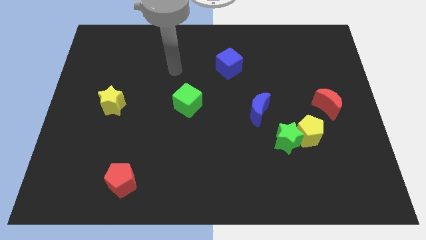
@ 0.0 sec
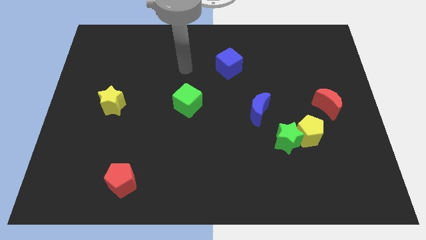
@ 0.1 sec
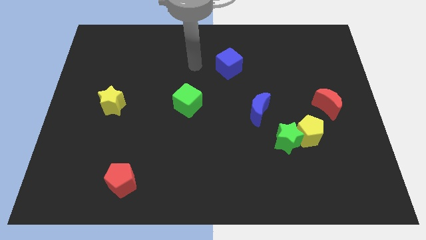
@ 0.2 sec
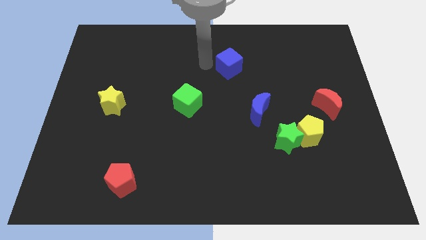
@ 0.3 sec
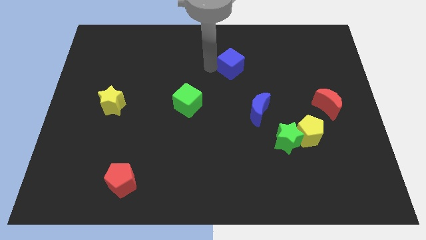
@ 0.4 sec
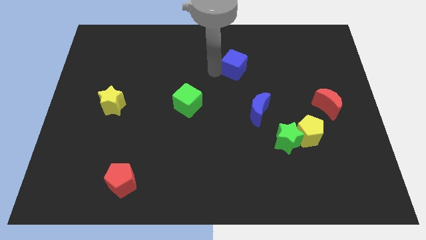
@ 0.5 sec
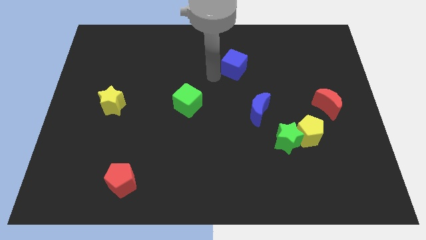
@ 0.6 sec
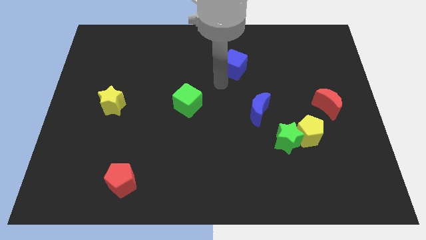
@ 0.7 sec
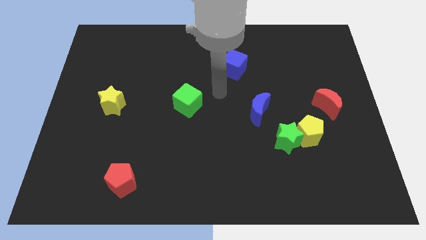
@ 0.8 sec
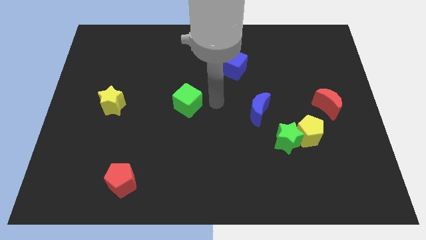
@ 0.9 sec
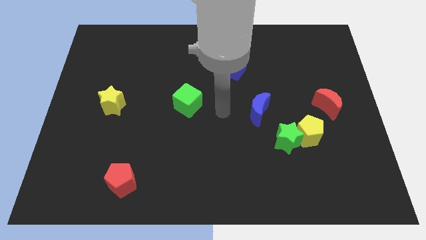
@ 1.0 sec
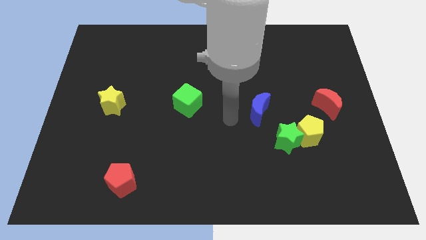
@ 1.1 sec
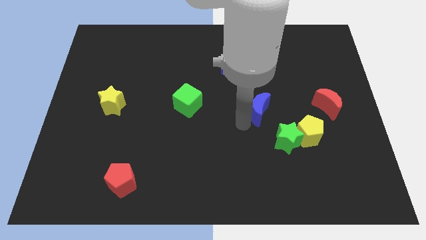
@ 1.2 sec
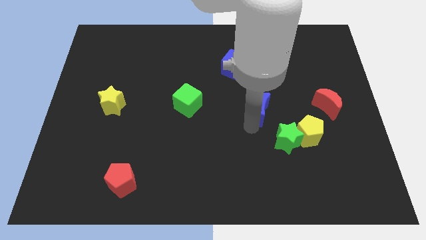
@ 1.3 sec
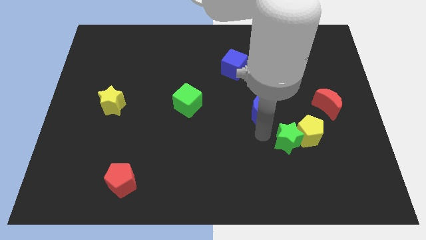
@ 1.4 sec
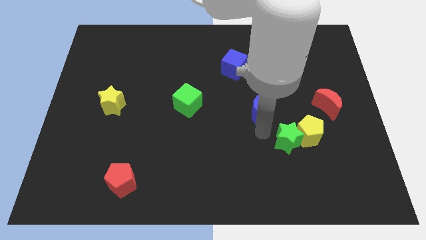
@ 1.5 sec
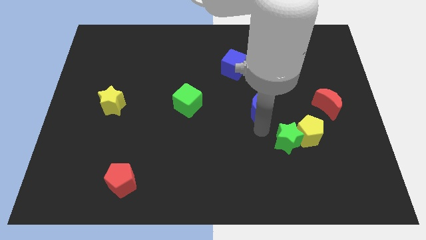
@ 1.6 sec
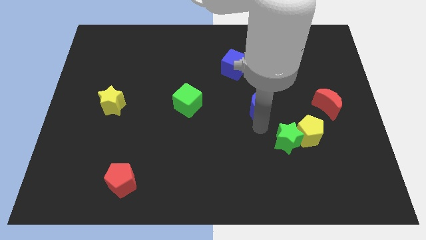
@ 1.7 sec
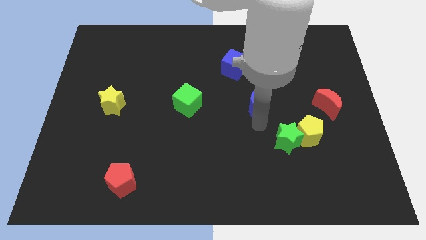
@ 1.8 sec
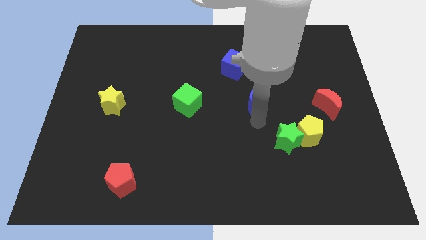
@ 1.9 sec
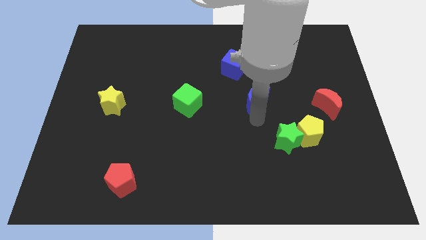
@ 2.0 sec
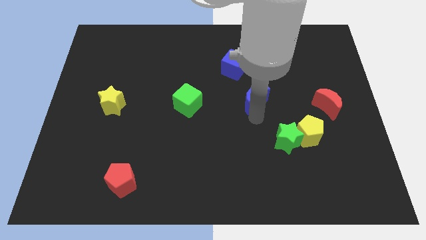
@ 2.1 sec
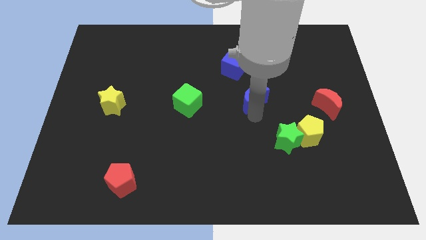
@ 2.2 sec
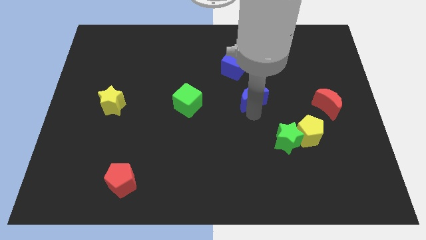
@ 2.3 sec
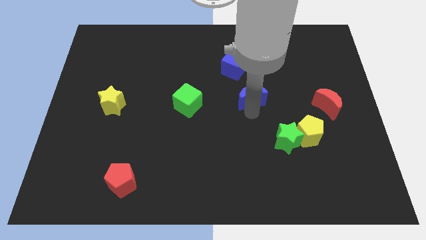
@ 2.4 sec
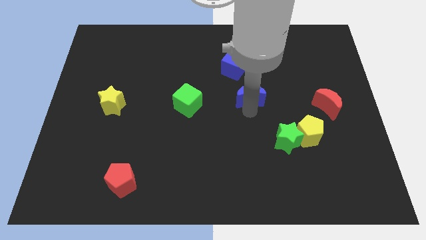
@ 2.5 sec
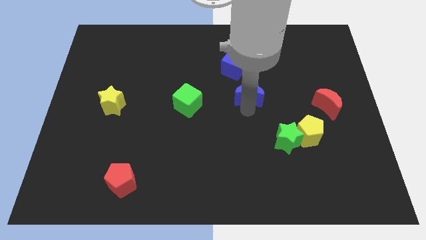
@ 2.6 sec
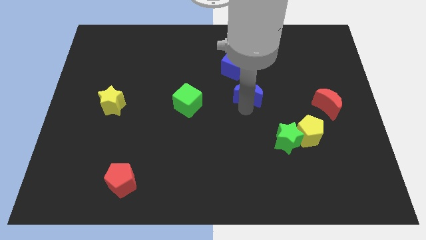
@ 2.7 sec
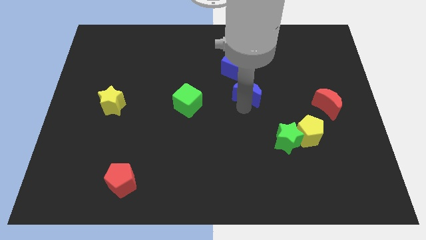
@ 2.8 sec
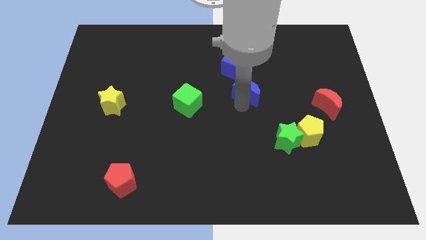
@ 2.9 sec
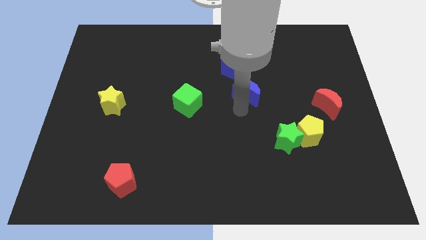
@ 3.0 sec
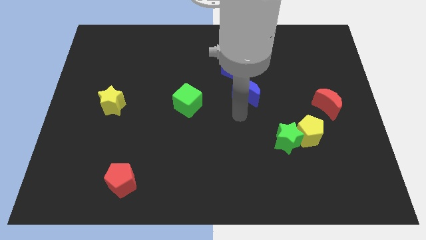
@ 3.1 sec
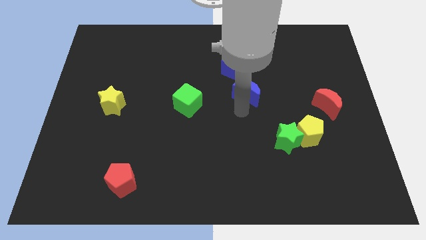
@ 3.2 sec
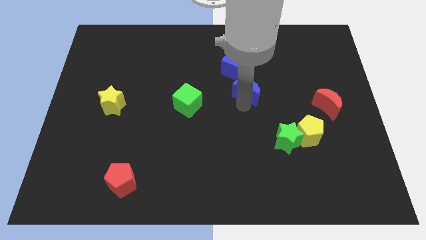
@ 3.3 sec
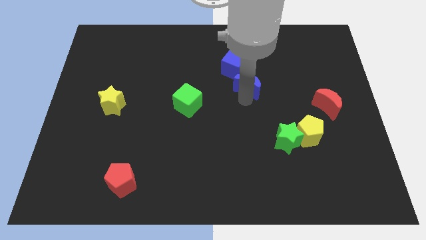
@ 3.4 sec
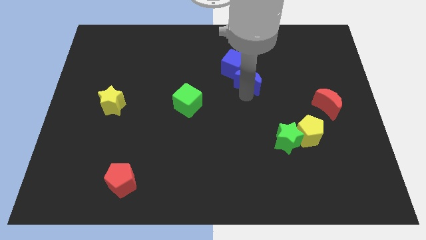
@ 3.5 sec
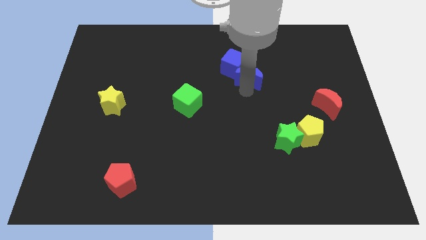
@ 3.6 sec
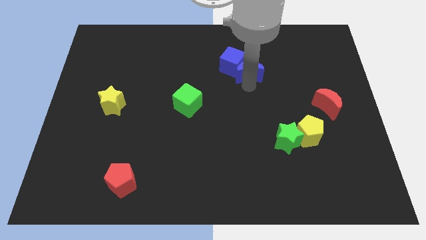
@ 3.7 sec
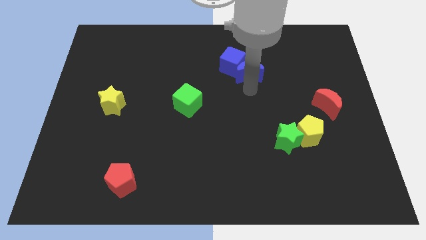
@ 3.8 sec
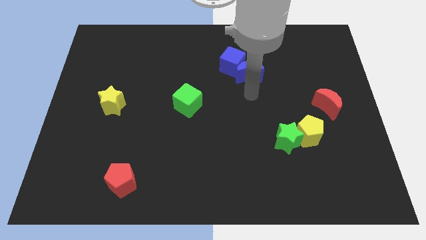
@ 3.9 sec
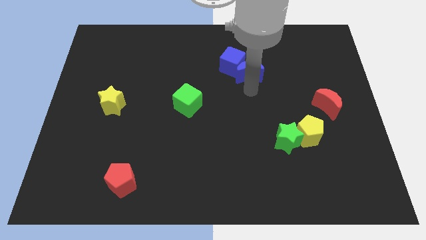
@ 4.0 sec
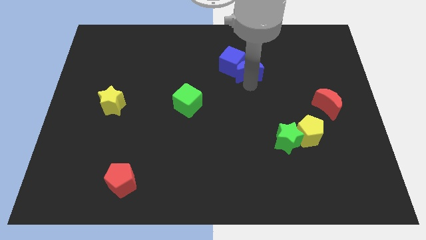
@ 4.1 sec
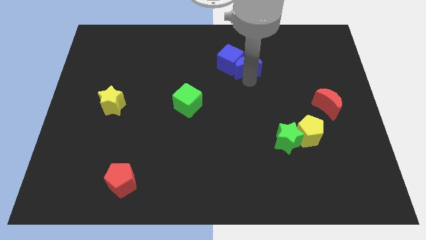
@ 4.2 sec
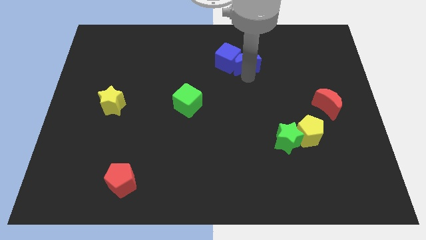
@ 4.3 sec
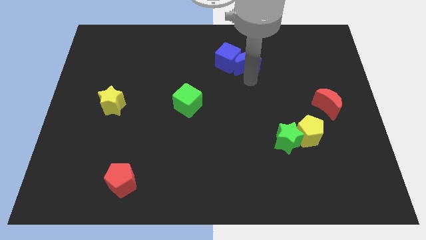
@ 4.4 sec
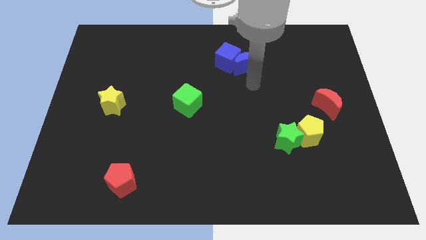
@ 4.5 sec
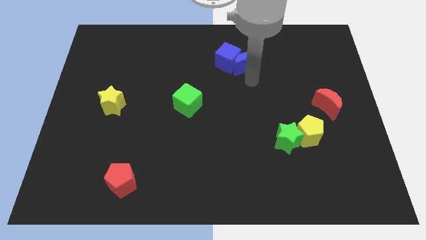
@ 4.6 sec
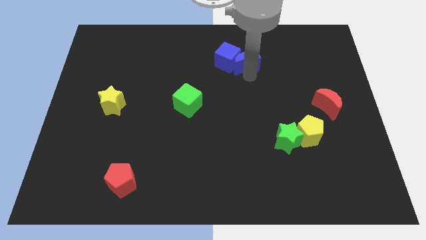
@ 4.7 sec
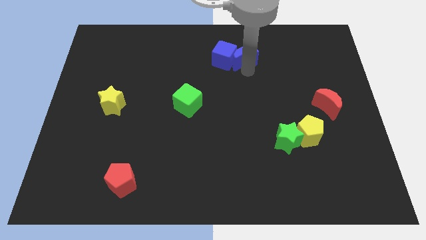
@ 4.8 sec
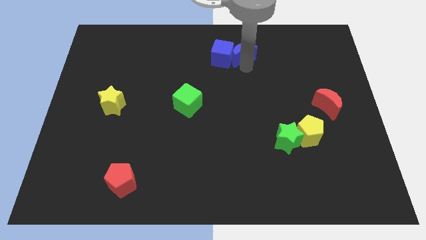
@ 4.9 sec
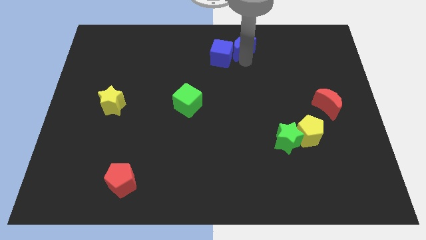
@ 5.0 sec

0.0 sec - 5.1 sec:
put the blue moon to the towards your base
